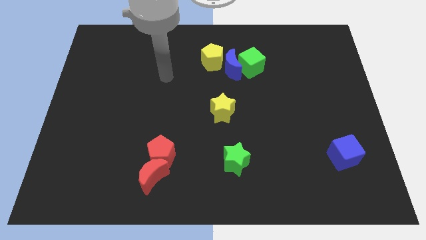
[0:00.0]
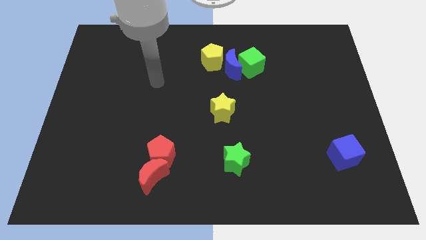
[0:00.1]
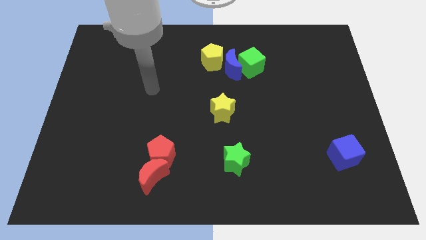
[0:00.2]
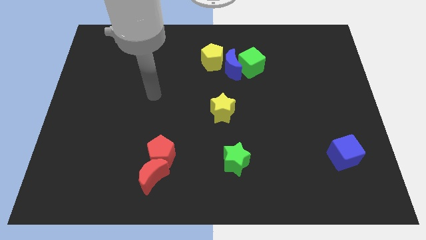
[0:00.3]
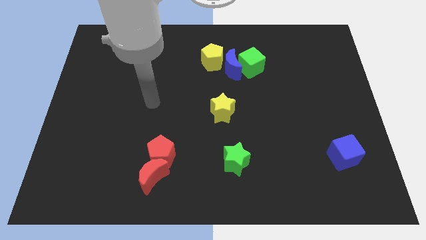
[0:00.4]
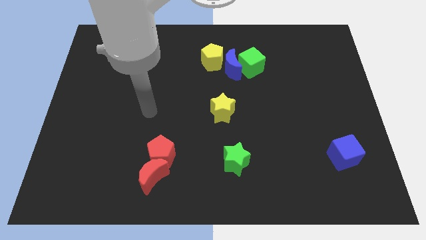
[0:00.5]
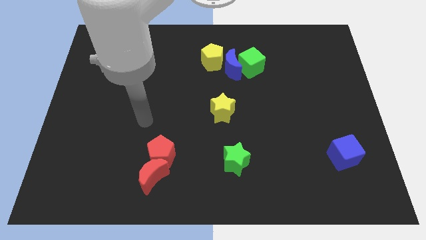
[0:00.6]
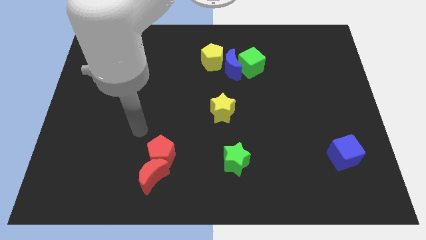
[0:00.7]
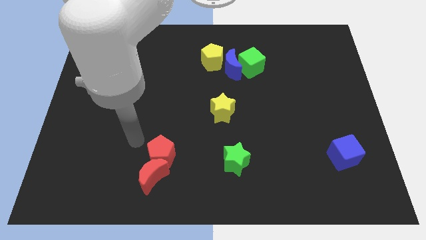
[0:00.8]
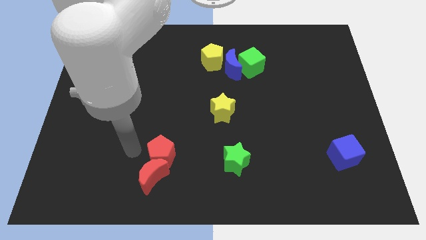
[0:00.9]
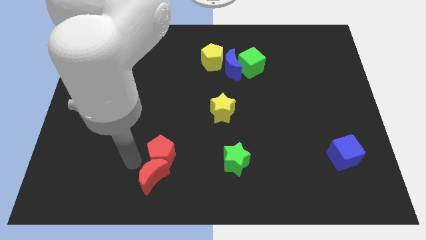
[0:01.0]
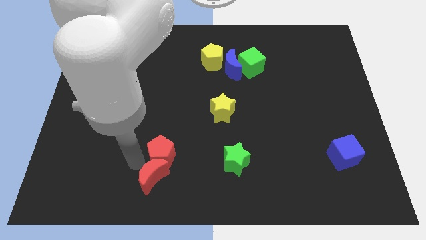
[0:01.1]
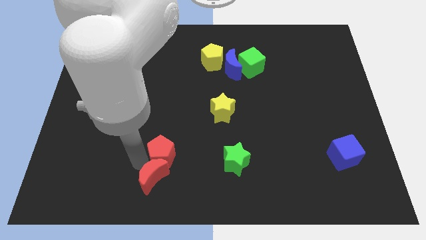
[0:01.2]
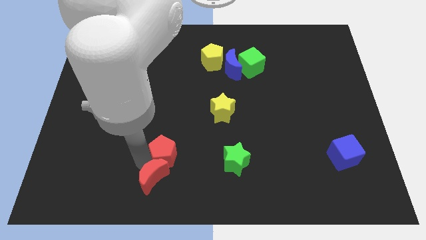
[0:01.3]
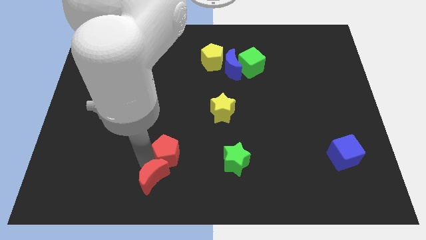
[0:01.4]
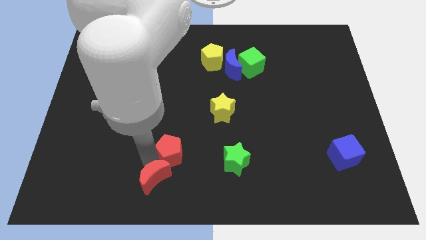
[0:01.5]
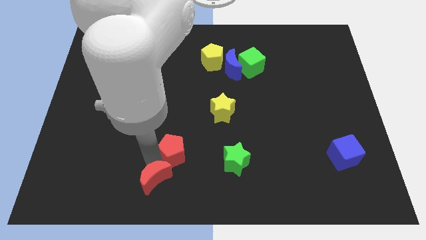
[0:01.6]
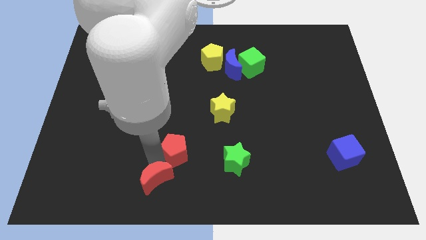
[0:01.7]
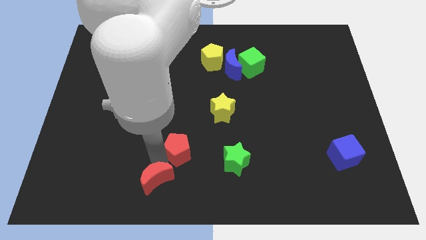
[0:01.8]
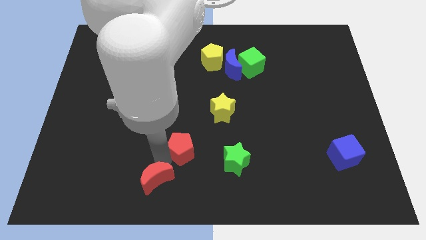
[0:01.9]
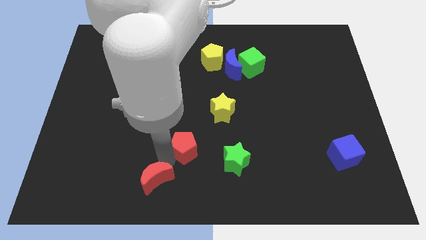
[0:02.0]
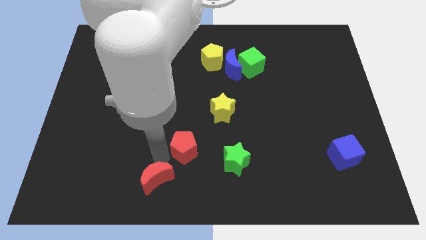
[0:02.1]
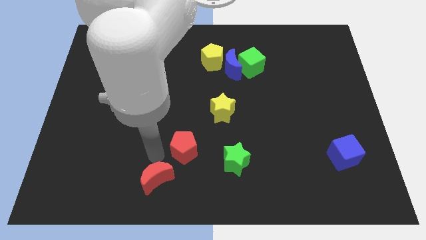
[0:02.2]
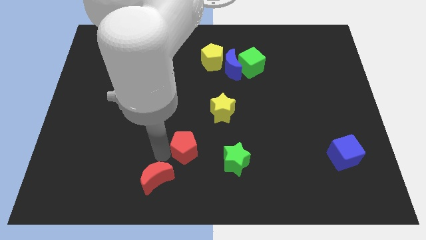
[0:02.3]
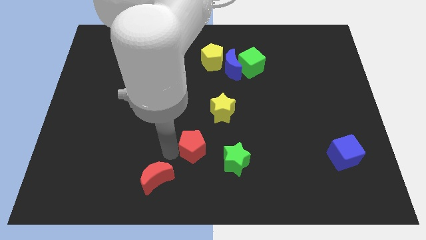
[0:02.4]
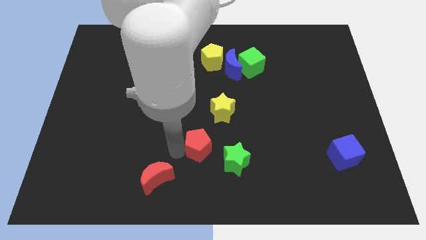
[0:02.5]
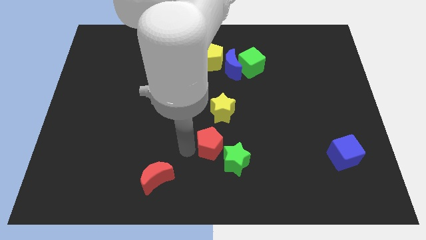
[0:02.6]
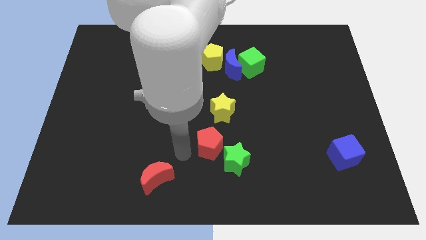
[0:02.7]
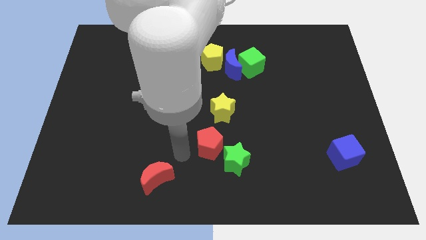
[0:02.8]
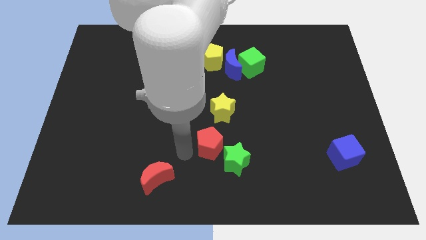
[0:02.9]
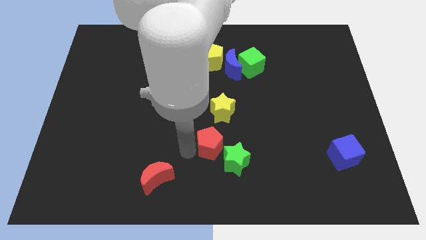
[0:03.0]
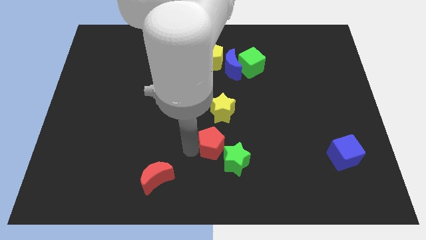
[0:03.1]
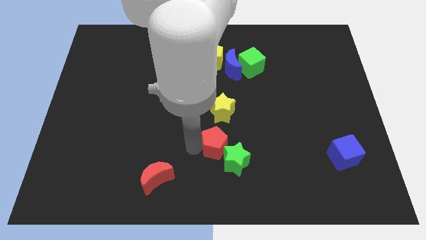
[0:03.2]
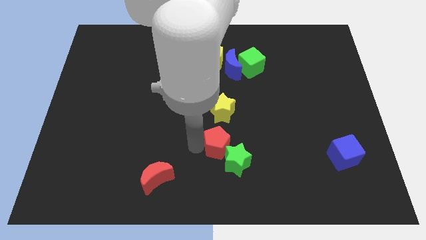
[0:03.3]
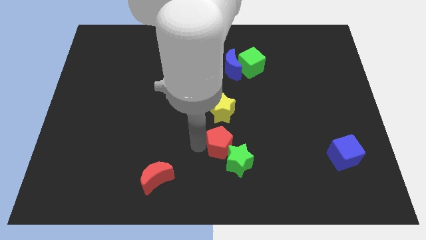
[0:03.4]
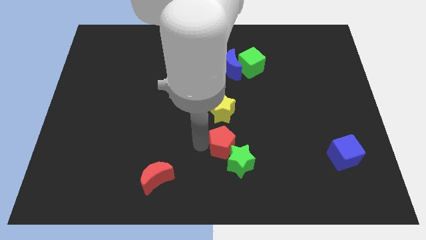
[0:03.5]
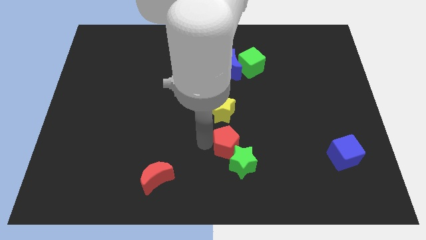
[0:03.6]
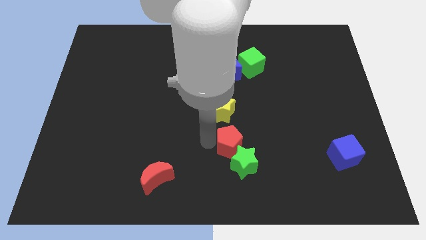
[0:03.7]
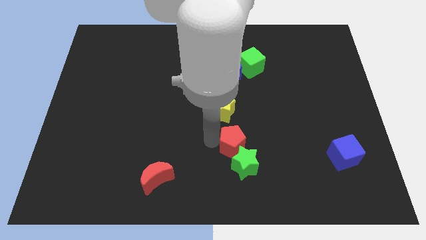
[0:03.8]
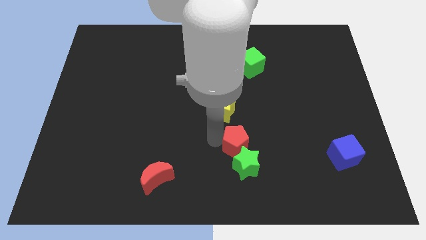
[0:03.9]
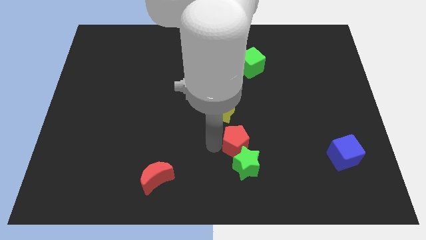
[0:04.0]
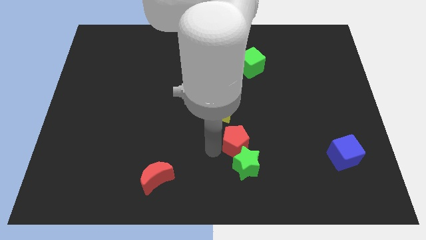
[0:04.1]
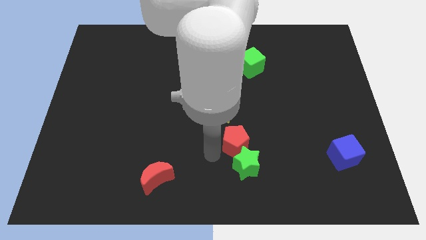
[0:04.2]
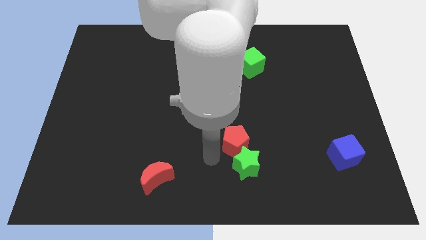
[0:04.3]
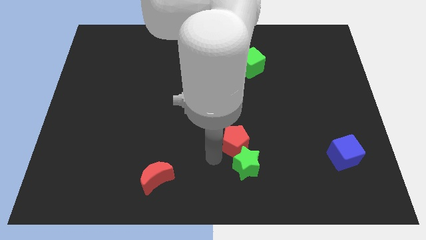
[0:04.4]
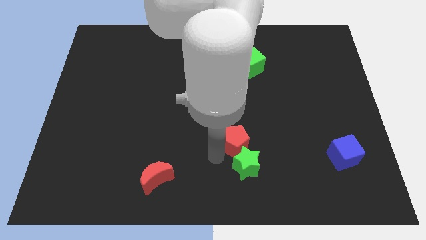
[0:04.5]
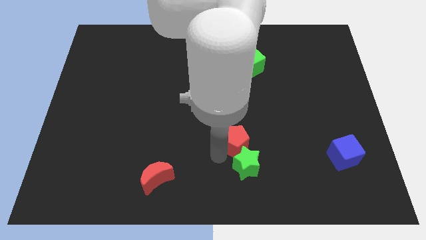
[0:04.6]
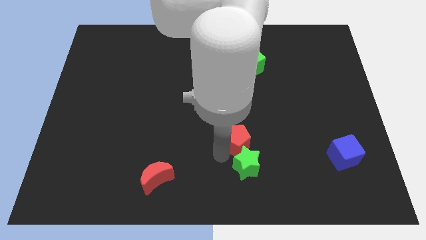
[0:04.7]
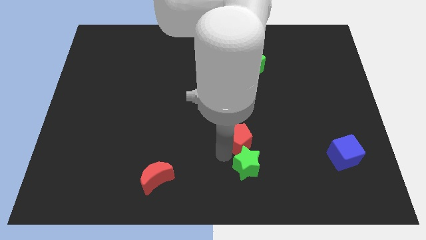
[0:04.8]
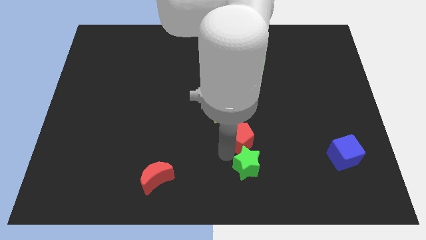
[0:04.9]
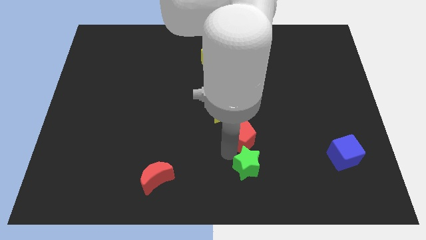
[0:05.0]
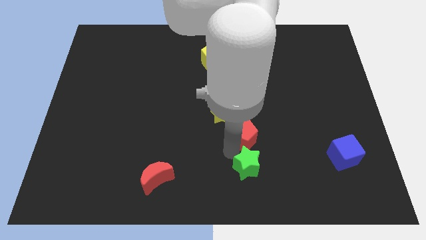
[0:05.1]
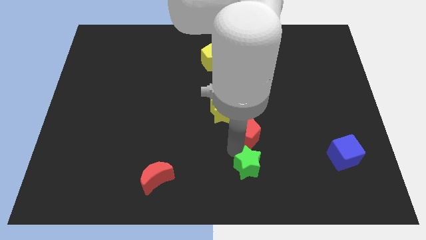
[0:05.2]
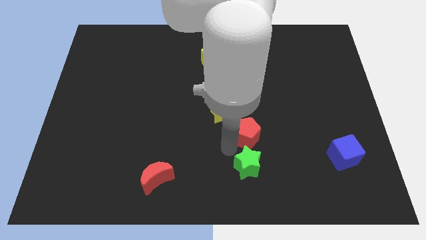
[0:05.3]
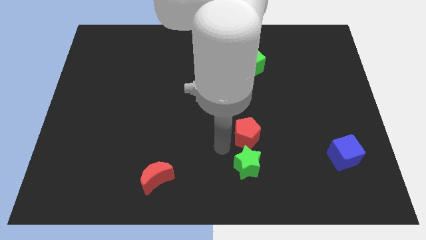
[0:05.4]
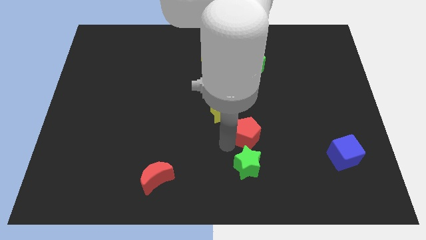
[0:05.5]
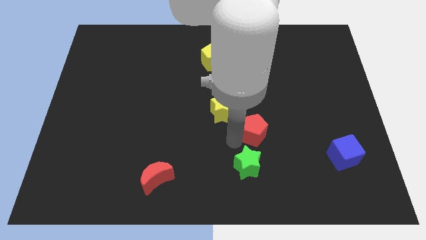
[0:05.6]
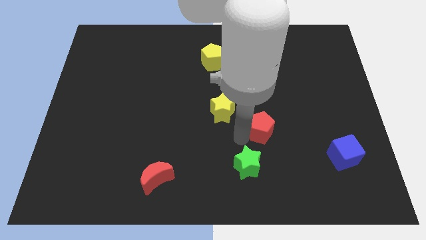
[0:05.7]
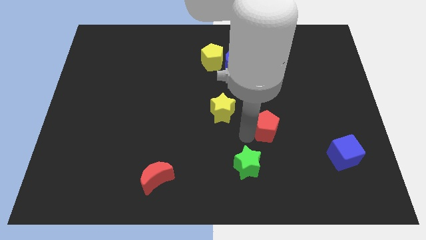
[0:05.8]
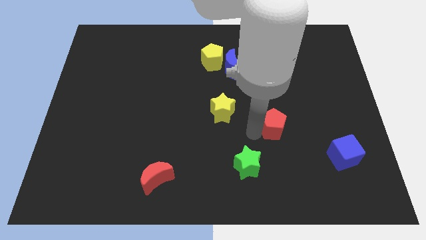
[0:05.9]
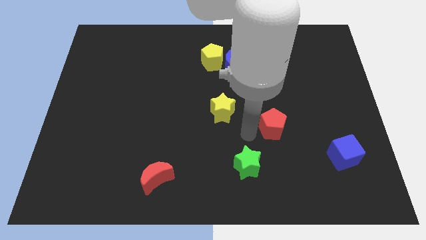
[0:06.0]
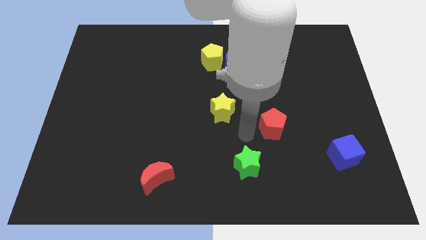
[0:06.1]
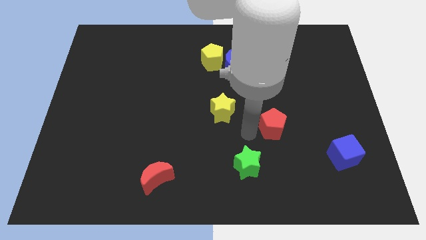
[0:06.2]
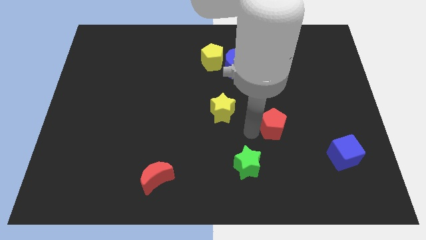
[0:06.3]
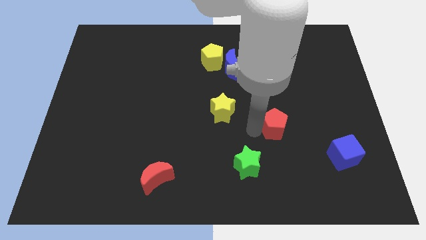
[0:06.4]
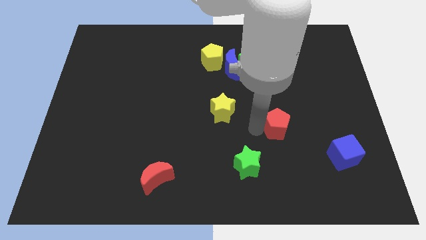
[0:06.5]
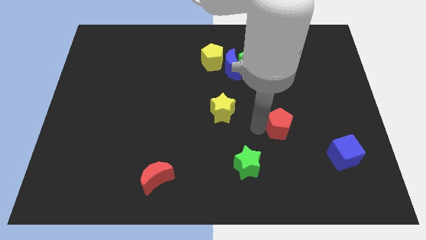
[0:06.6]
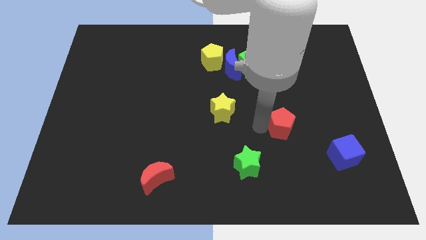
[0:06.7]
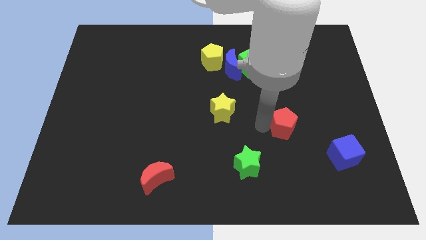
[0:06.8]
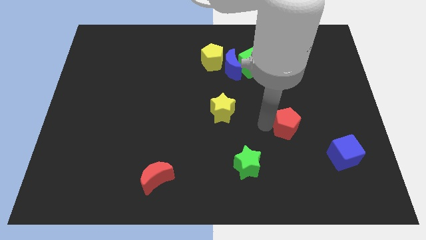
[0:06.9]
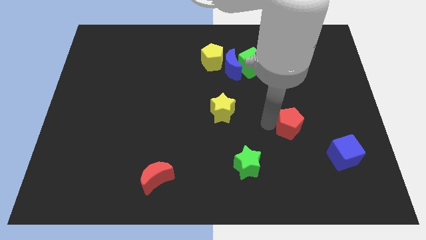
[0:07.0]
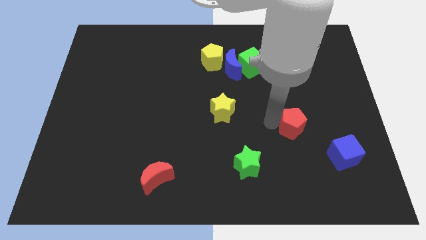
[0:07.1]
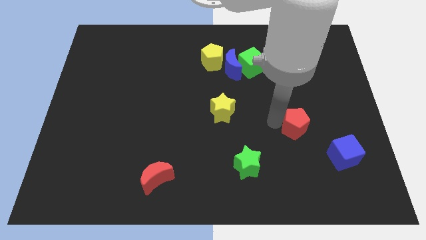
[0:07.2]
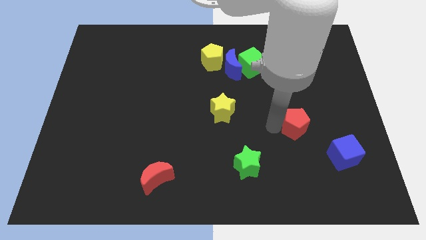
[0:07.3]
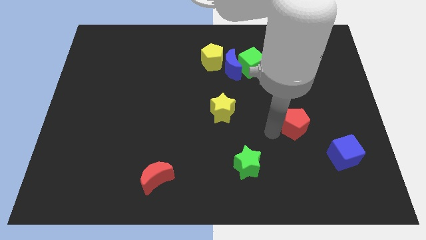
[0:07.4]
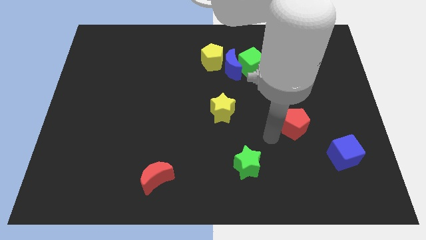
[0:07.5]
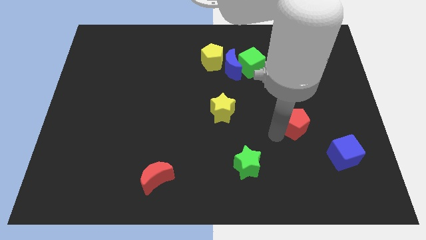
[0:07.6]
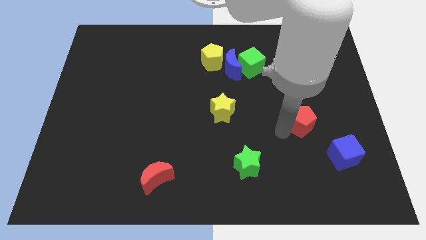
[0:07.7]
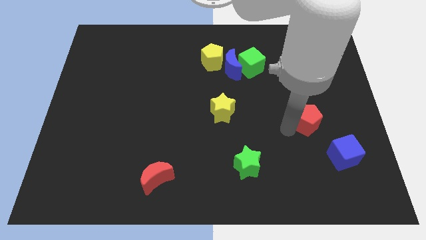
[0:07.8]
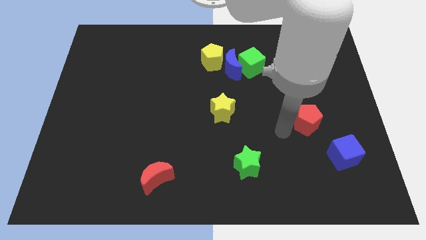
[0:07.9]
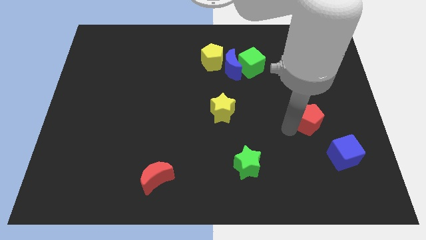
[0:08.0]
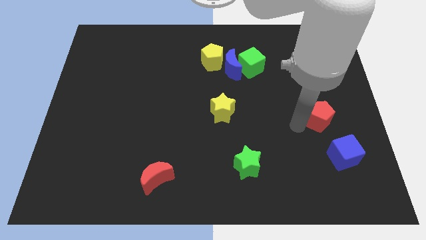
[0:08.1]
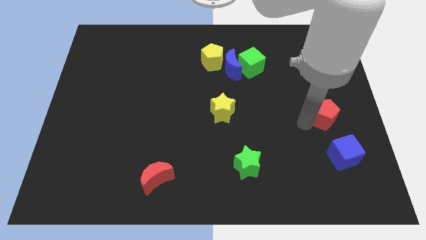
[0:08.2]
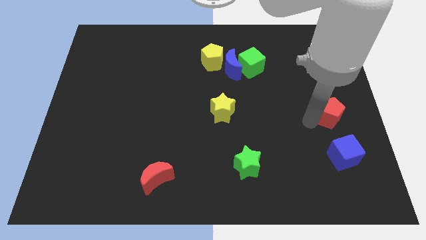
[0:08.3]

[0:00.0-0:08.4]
move the red pentagon to the center right
